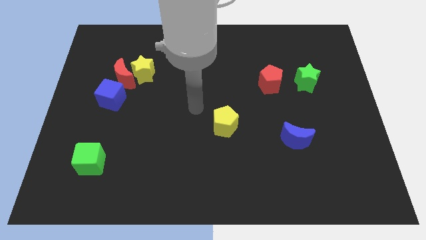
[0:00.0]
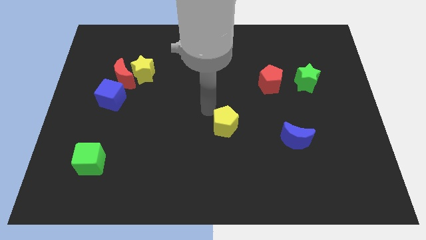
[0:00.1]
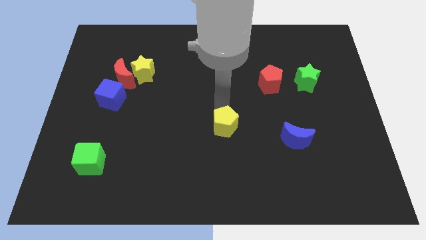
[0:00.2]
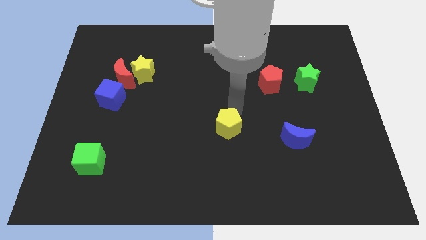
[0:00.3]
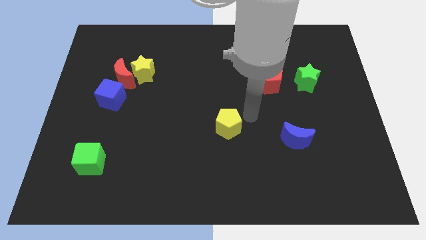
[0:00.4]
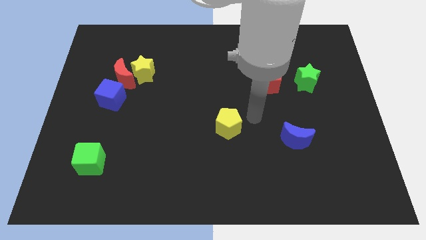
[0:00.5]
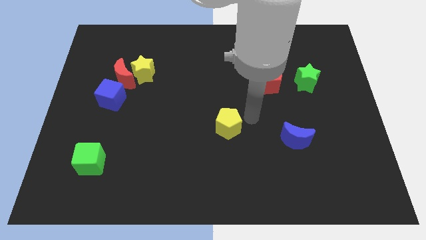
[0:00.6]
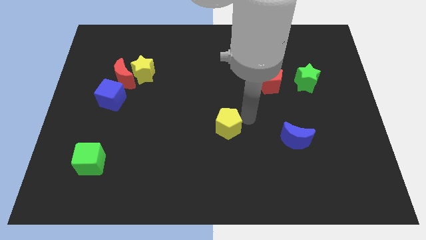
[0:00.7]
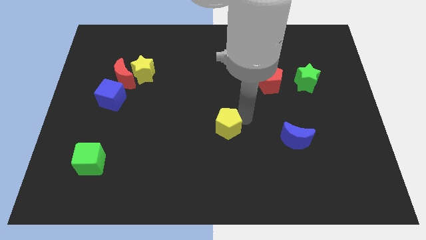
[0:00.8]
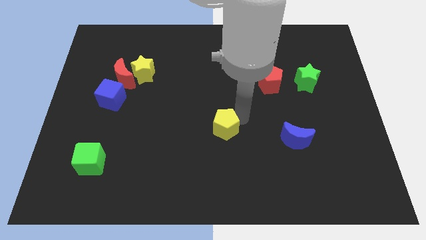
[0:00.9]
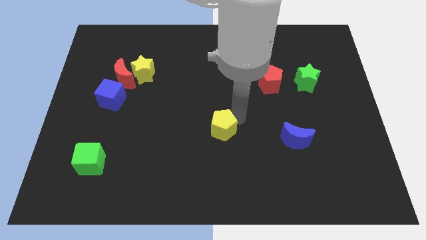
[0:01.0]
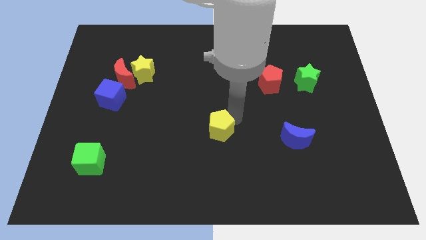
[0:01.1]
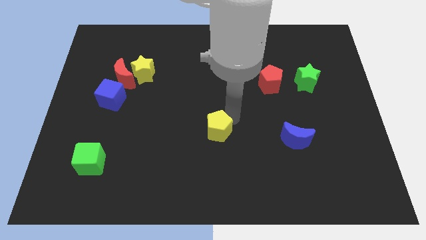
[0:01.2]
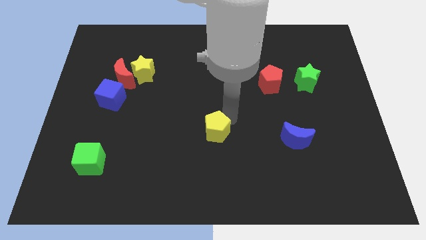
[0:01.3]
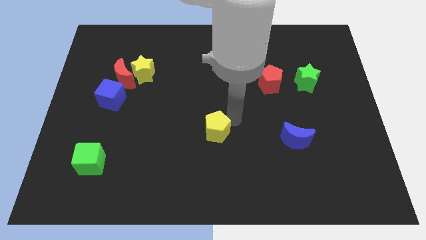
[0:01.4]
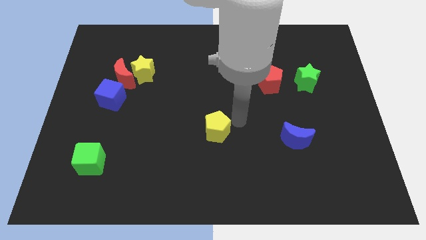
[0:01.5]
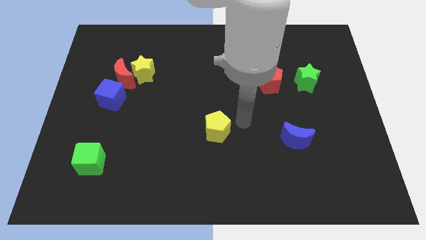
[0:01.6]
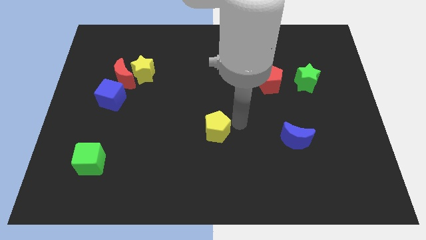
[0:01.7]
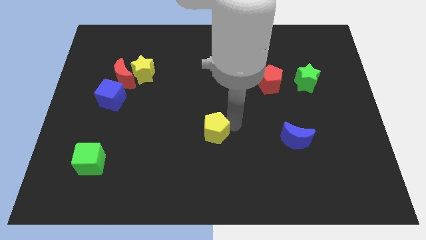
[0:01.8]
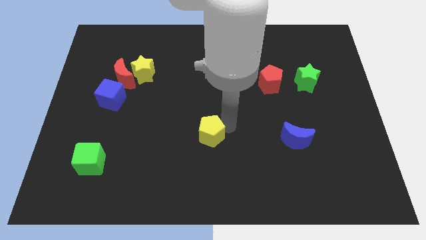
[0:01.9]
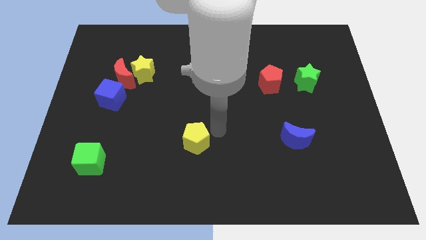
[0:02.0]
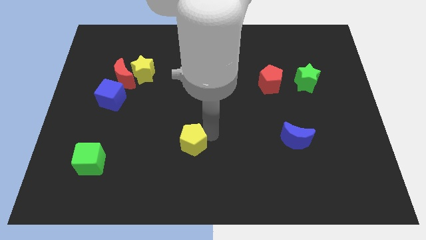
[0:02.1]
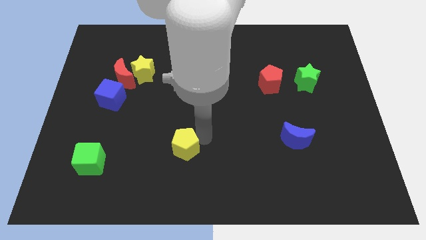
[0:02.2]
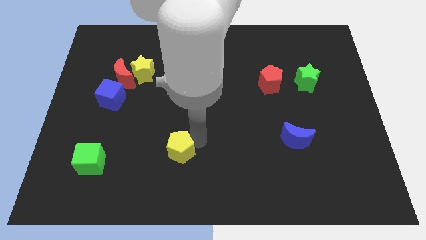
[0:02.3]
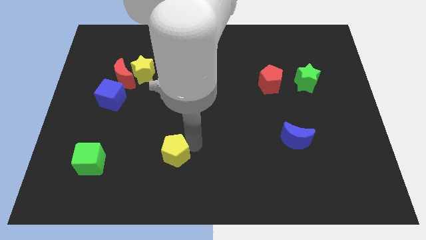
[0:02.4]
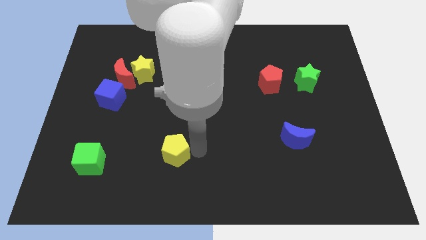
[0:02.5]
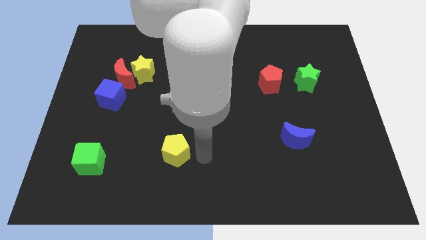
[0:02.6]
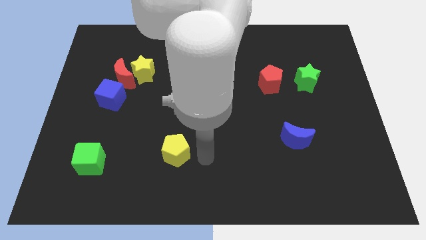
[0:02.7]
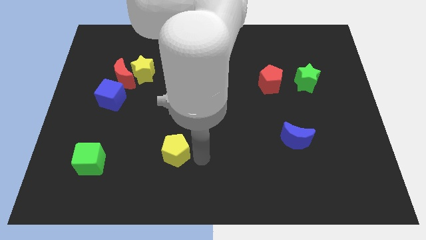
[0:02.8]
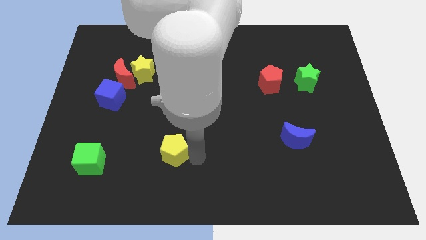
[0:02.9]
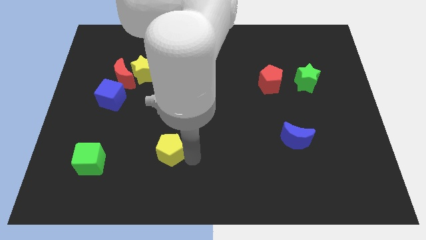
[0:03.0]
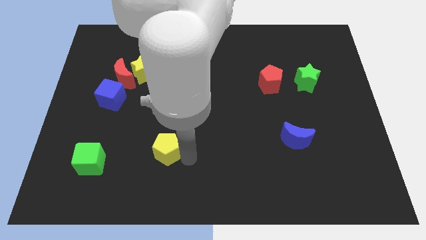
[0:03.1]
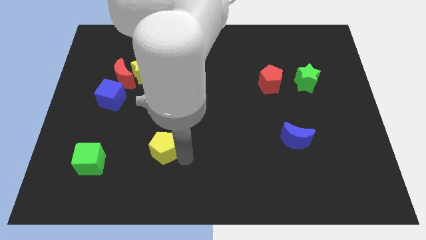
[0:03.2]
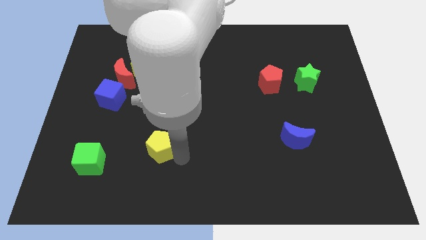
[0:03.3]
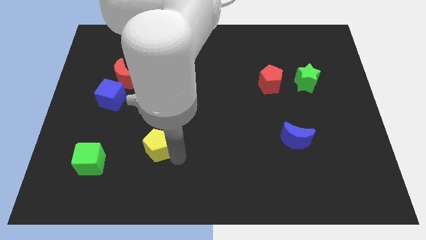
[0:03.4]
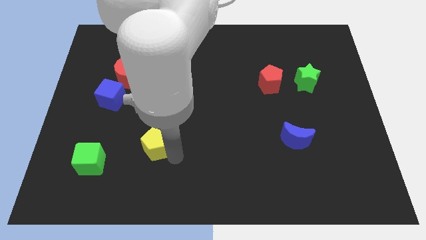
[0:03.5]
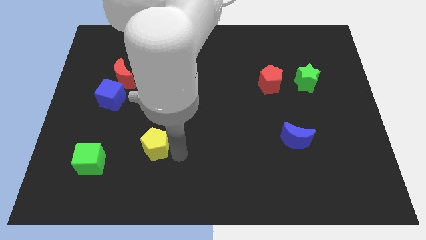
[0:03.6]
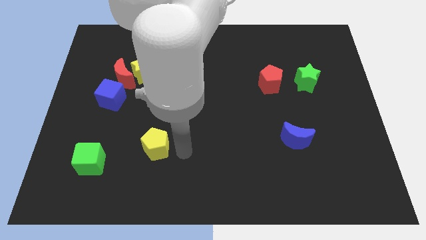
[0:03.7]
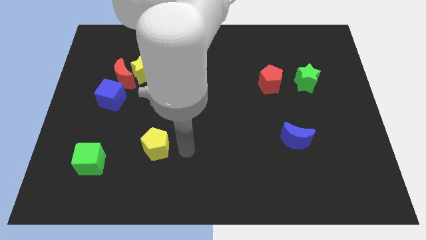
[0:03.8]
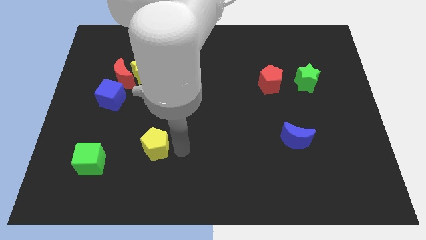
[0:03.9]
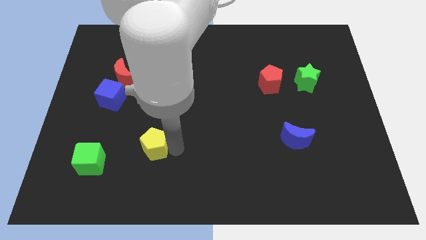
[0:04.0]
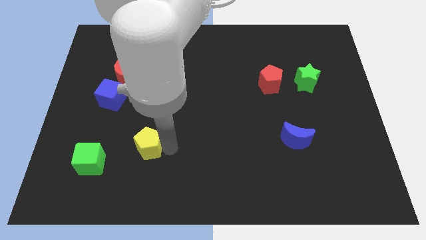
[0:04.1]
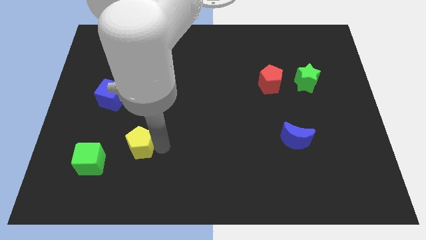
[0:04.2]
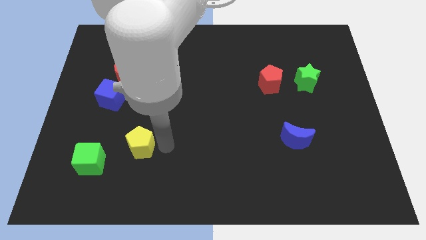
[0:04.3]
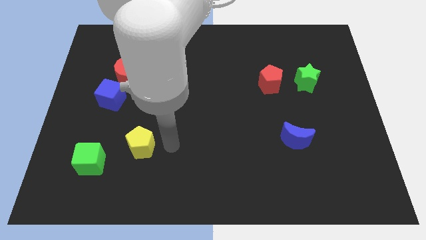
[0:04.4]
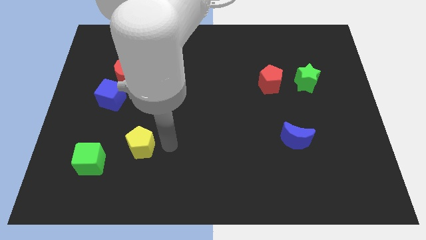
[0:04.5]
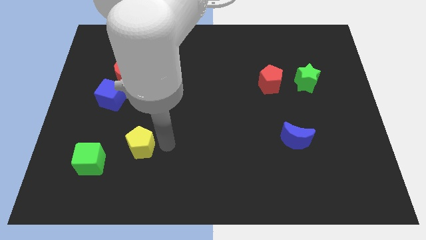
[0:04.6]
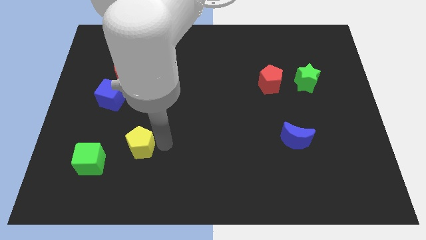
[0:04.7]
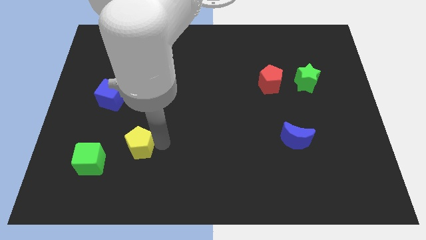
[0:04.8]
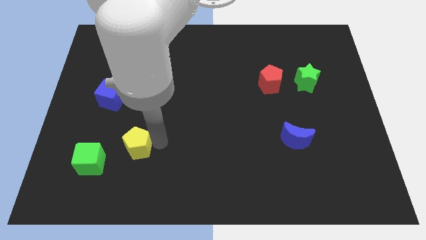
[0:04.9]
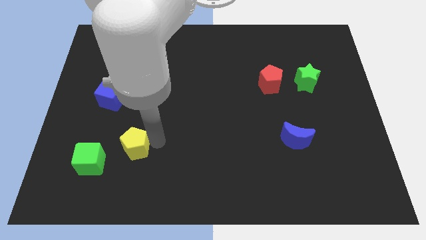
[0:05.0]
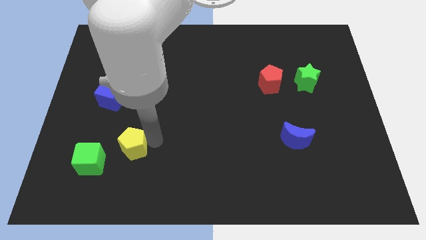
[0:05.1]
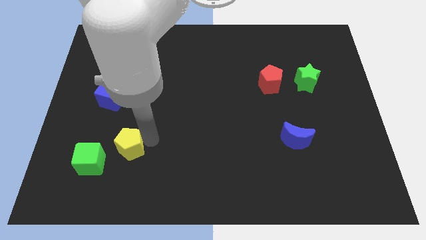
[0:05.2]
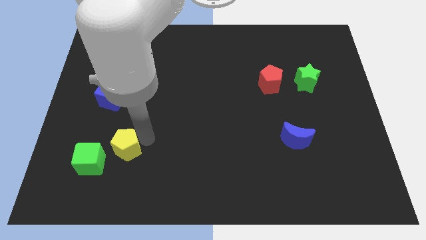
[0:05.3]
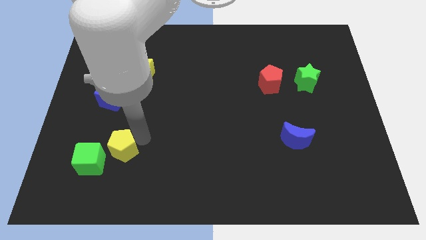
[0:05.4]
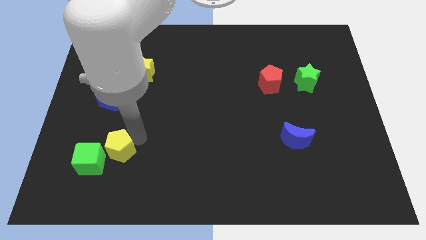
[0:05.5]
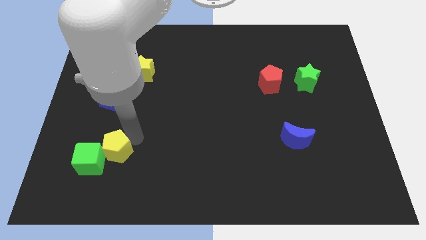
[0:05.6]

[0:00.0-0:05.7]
push the yellow pentagon towards the green cube

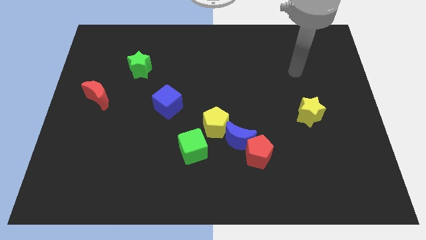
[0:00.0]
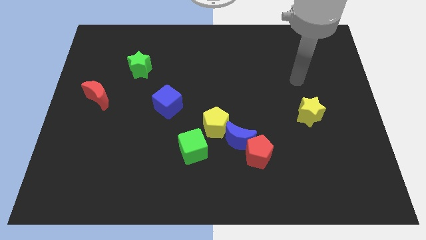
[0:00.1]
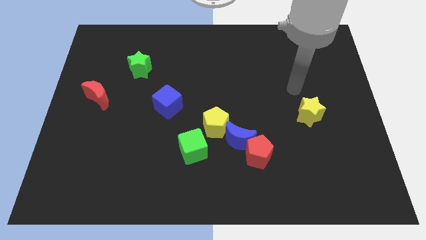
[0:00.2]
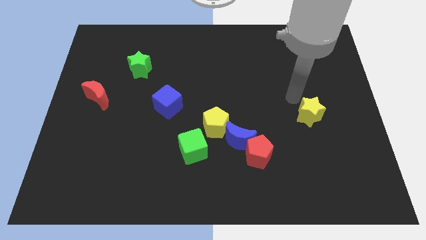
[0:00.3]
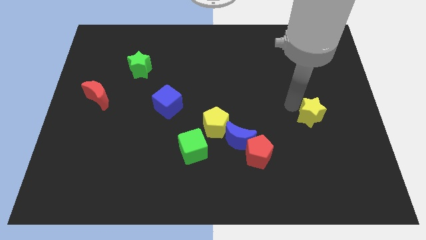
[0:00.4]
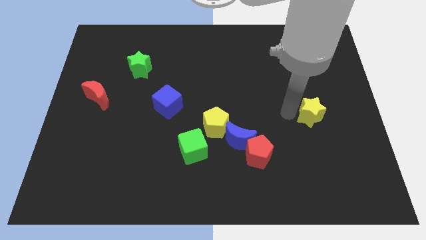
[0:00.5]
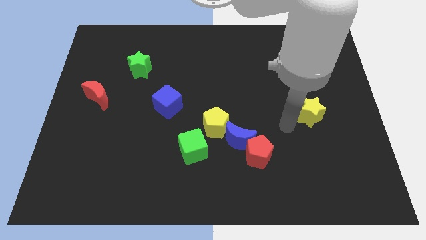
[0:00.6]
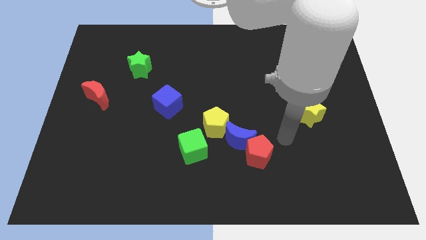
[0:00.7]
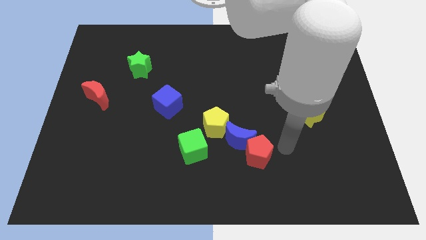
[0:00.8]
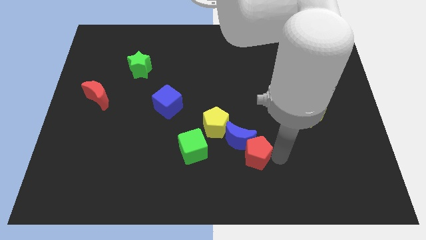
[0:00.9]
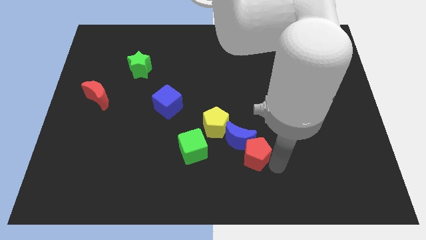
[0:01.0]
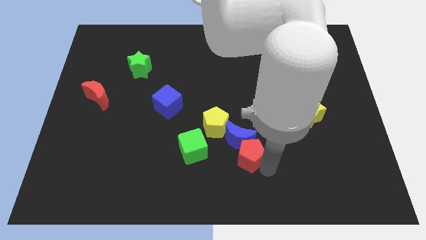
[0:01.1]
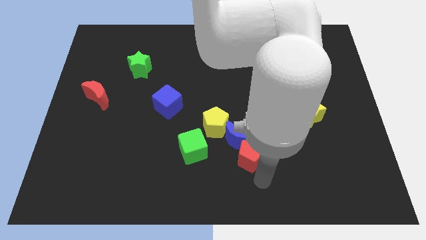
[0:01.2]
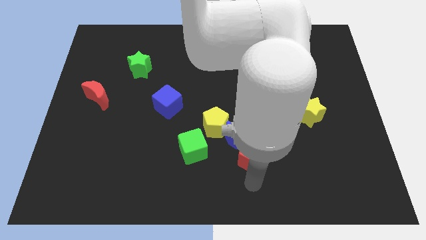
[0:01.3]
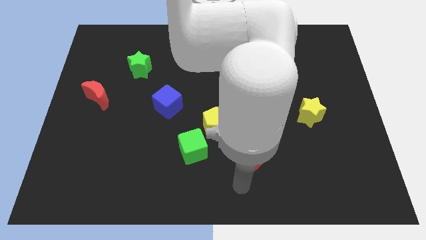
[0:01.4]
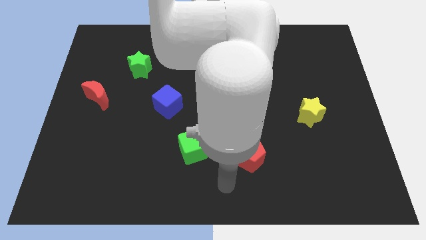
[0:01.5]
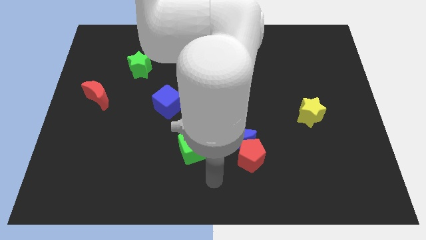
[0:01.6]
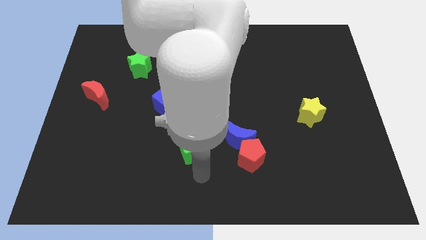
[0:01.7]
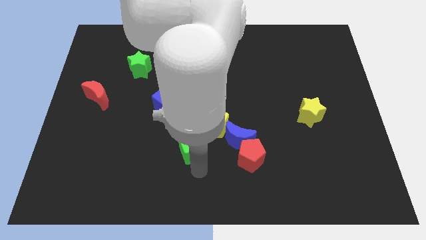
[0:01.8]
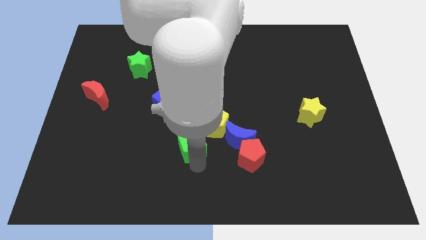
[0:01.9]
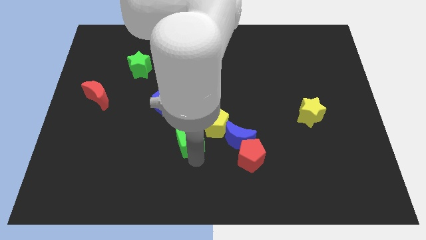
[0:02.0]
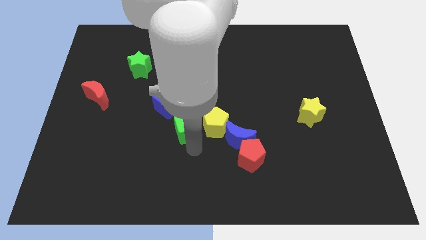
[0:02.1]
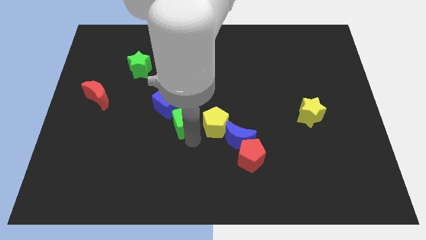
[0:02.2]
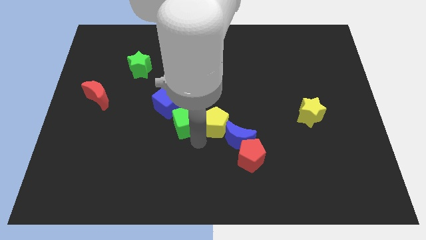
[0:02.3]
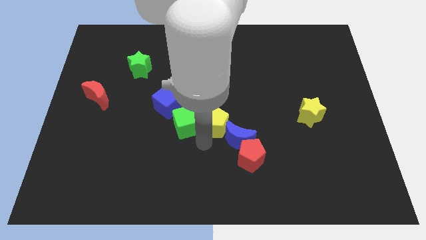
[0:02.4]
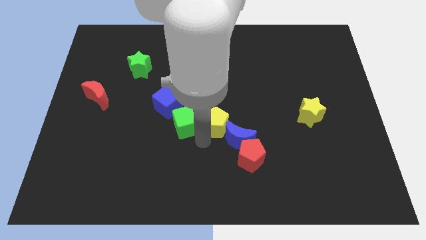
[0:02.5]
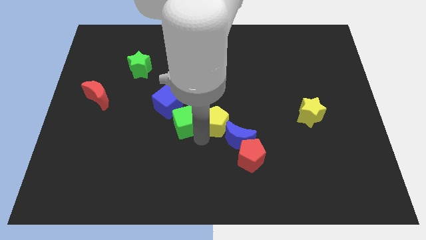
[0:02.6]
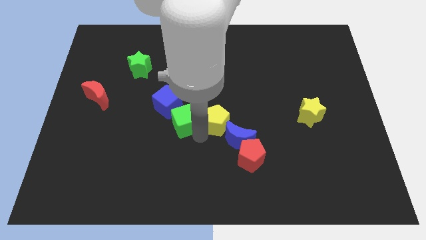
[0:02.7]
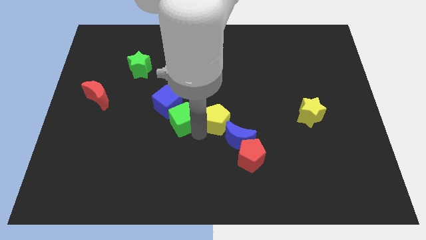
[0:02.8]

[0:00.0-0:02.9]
move the green cube close to the blue cube
